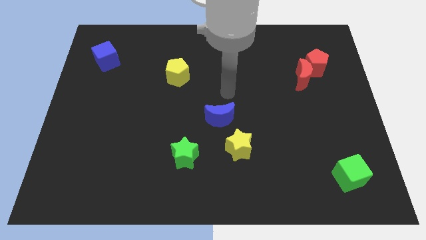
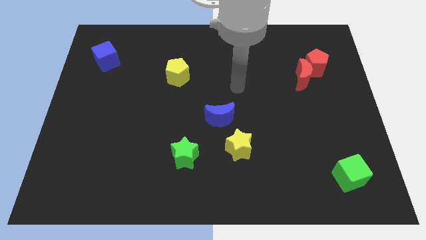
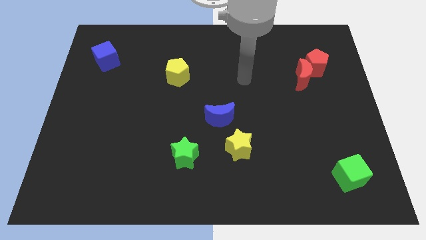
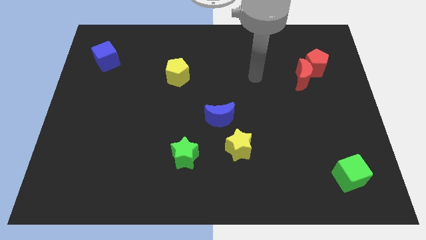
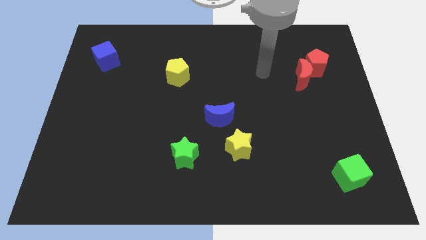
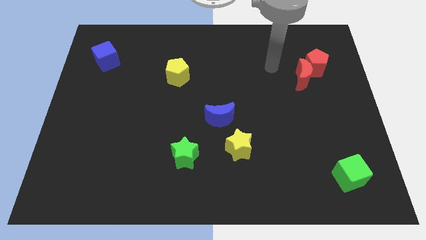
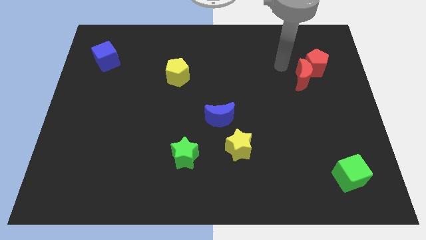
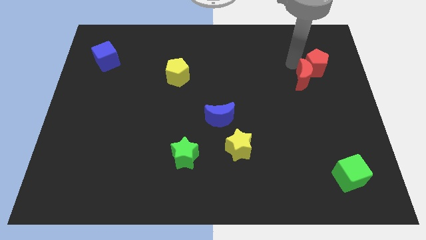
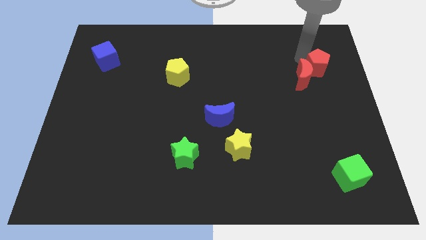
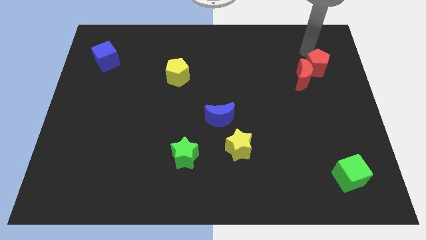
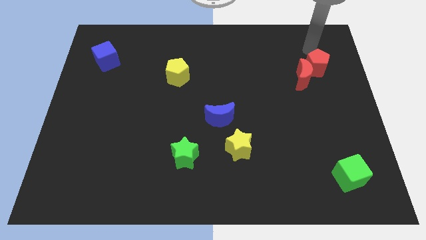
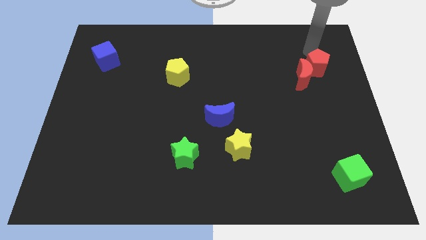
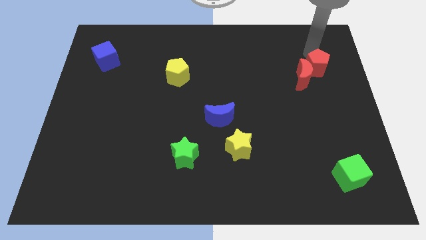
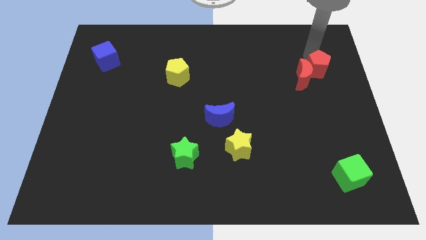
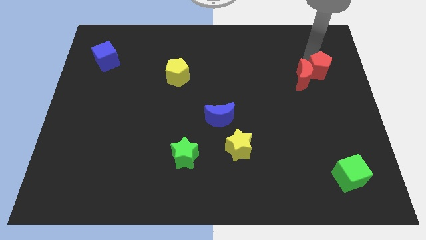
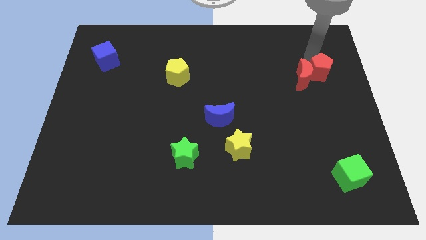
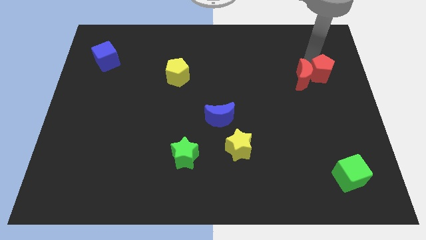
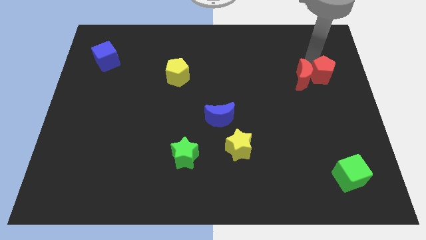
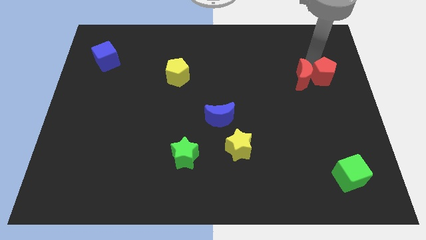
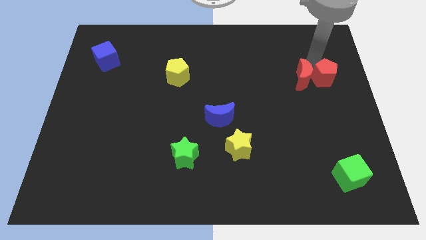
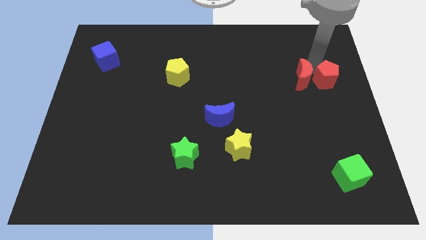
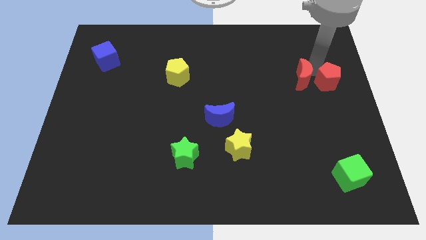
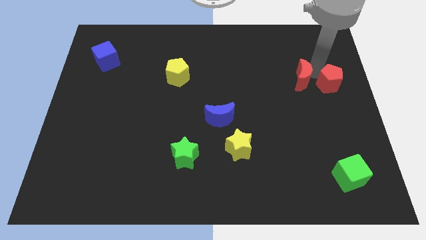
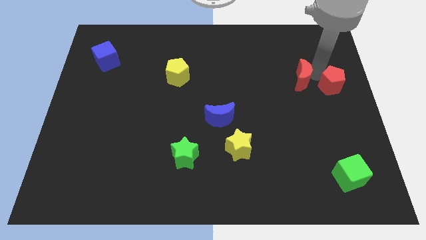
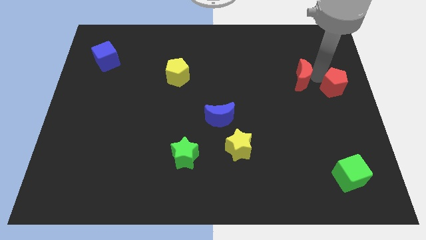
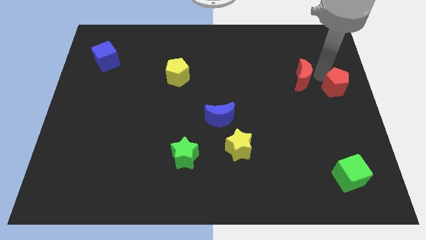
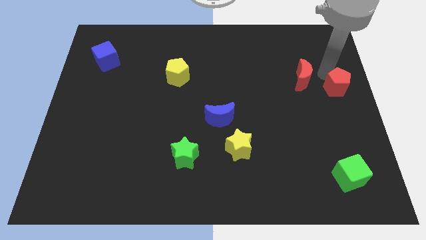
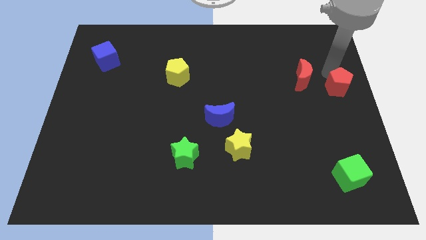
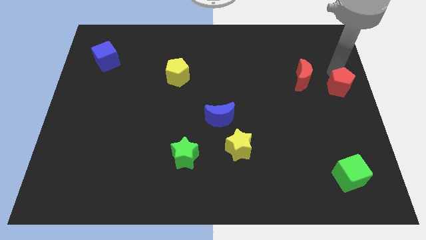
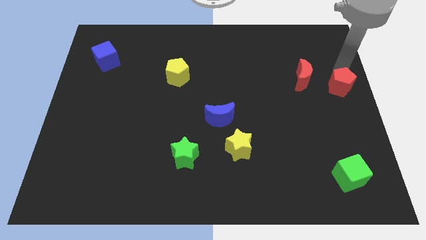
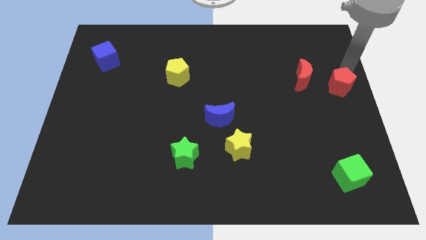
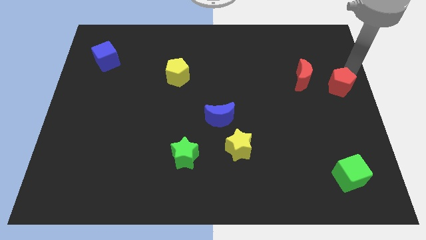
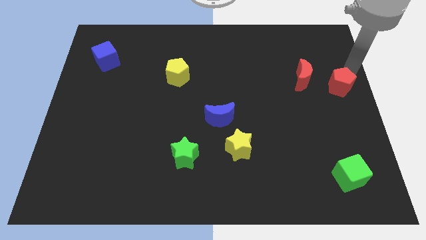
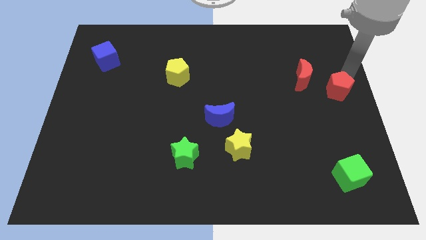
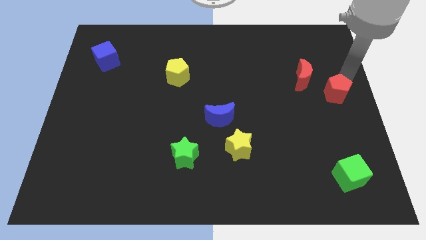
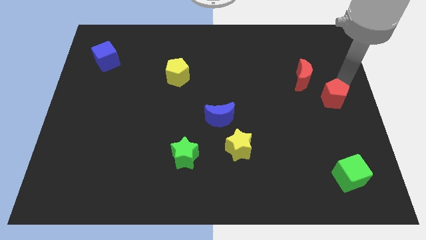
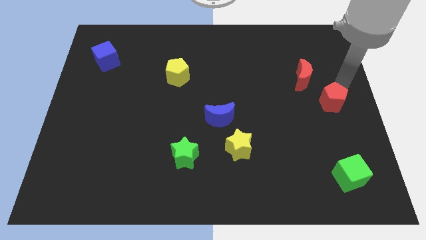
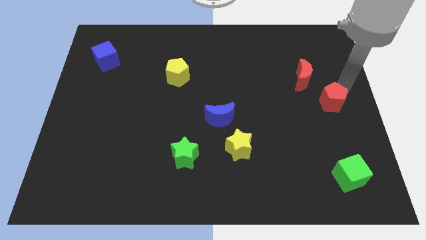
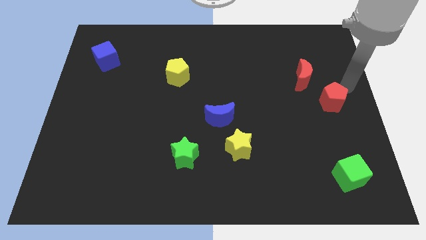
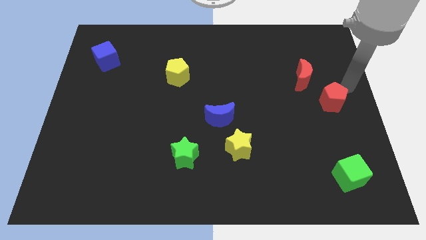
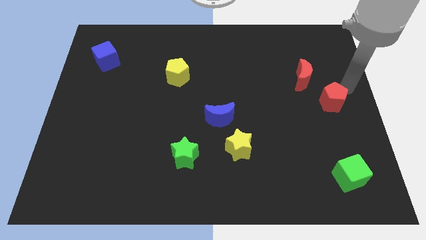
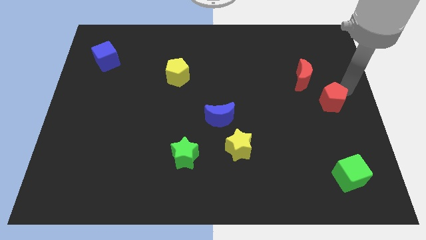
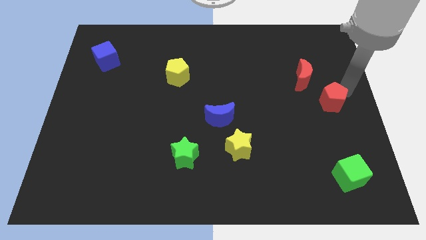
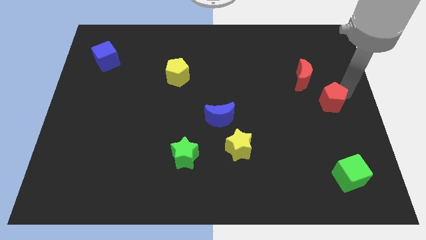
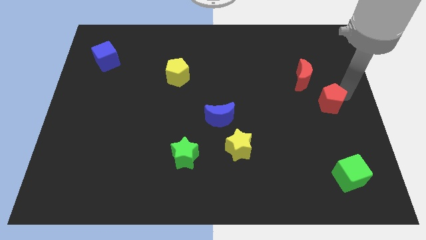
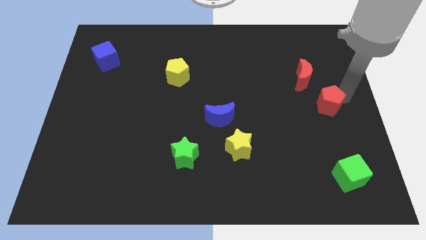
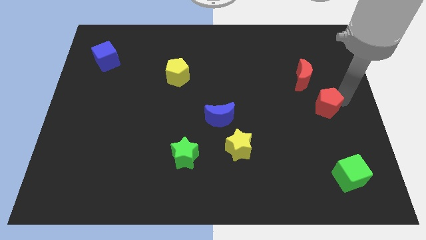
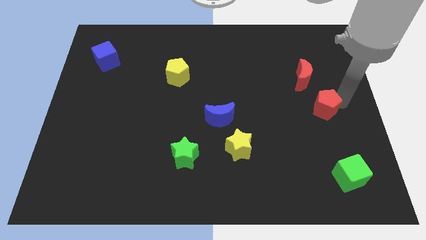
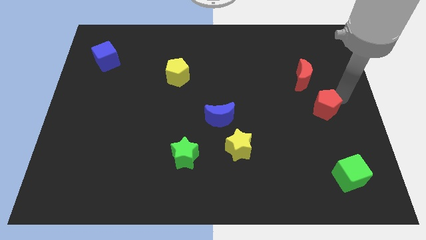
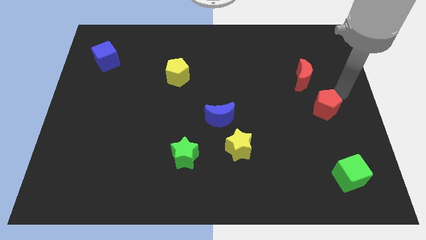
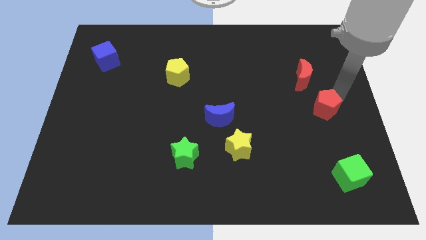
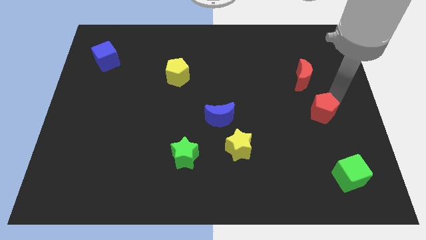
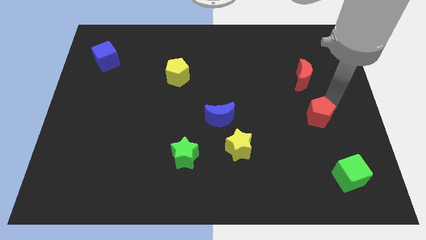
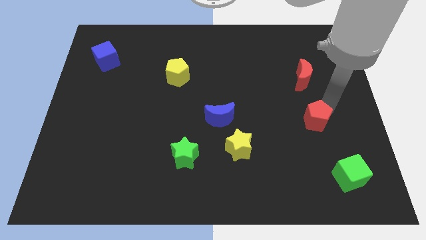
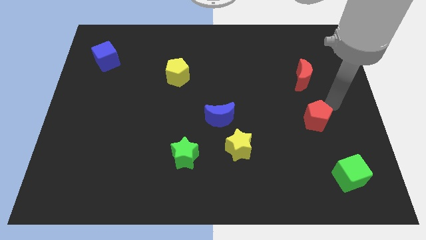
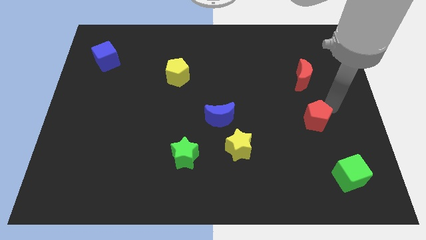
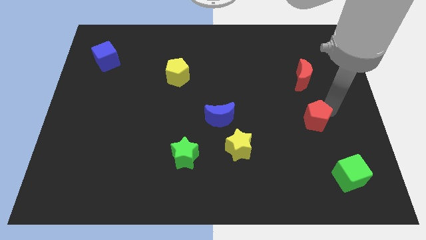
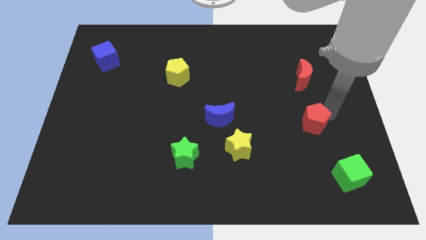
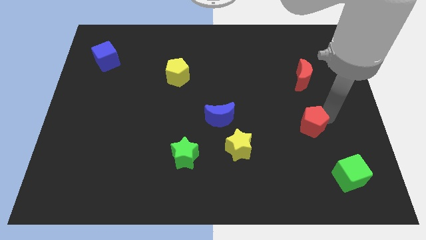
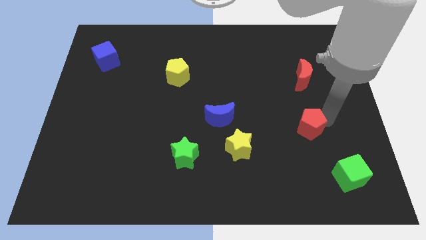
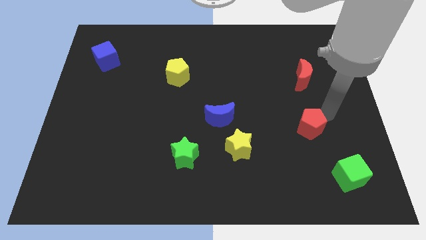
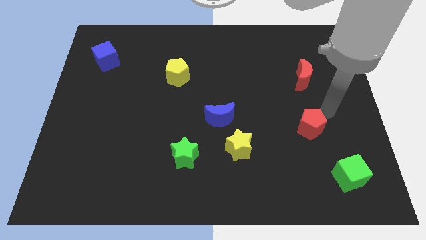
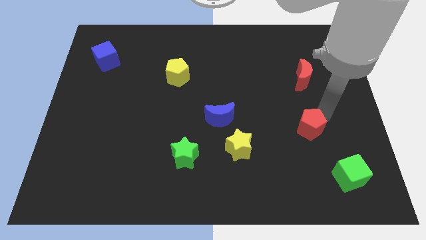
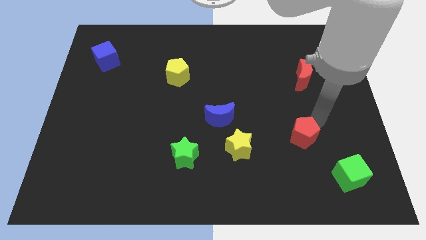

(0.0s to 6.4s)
slide the red pentagon right of the yellow star
